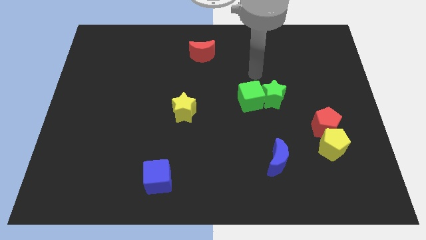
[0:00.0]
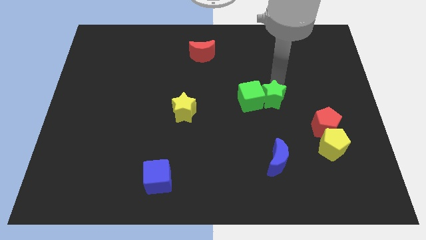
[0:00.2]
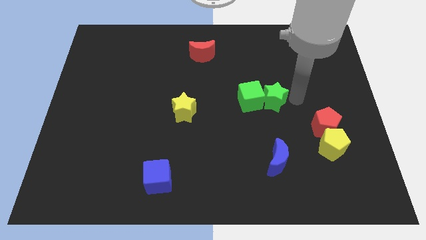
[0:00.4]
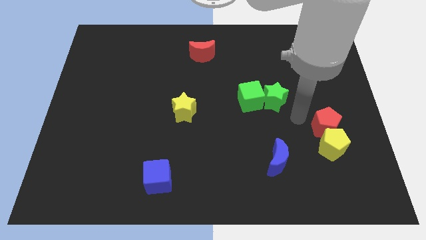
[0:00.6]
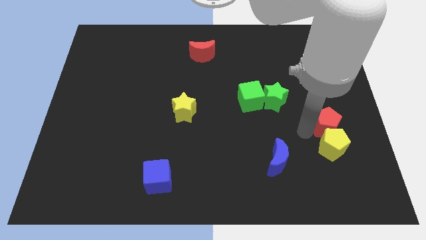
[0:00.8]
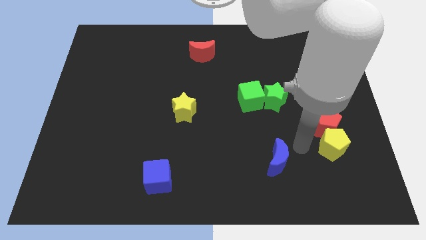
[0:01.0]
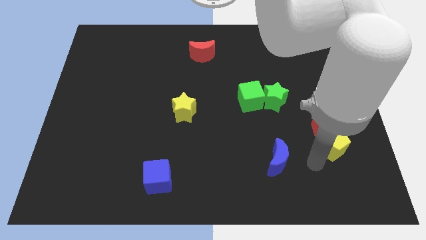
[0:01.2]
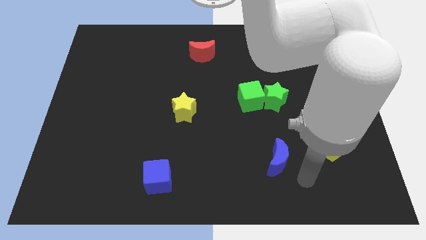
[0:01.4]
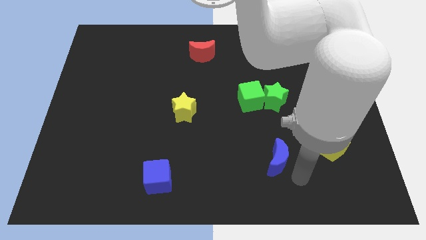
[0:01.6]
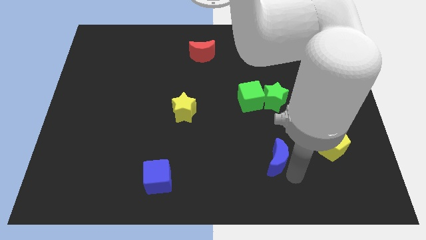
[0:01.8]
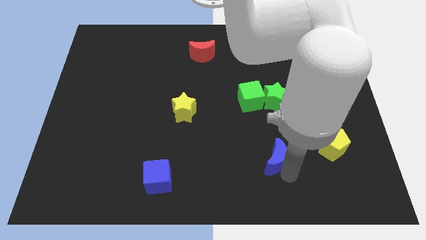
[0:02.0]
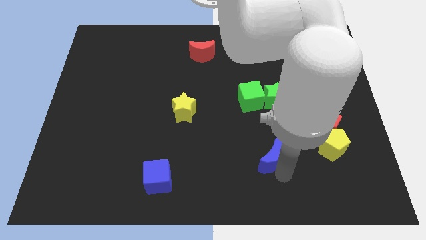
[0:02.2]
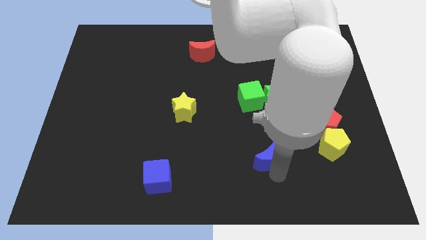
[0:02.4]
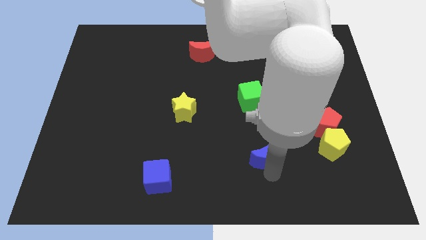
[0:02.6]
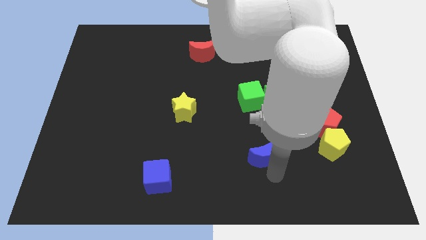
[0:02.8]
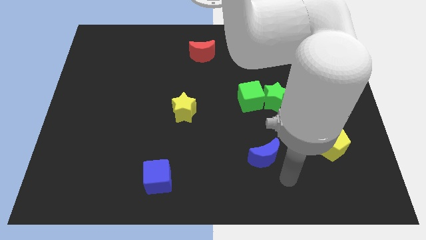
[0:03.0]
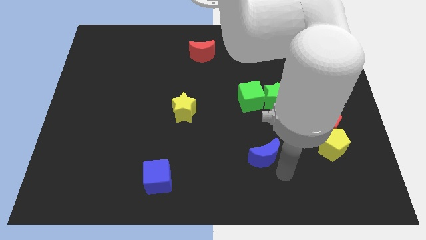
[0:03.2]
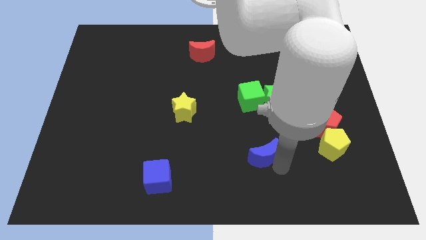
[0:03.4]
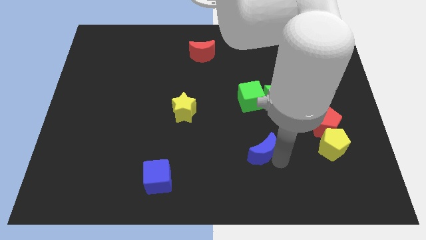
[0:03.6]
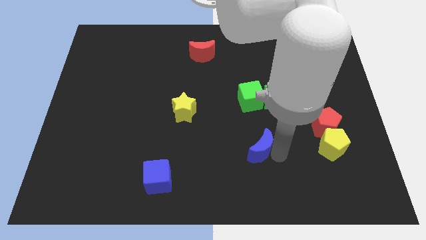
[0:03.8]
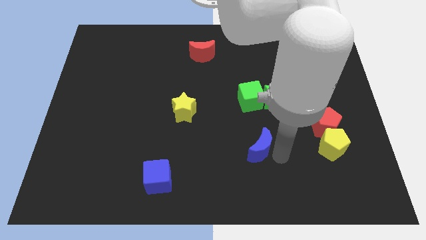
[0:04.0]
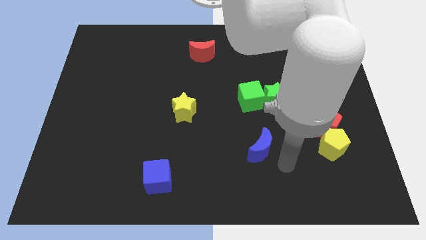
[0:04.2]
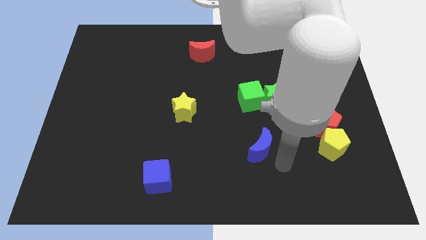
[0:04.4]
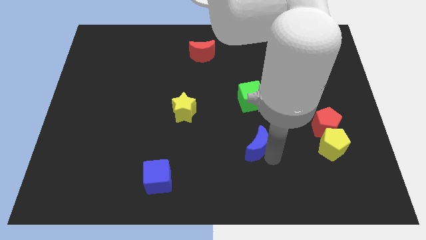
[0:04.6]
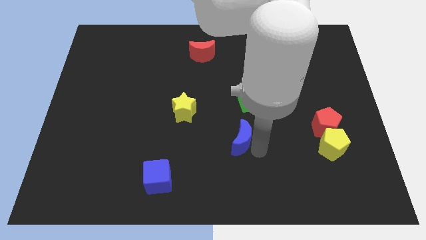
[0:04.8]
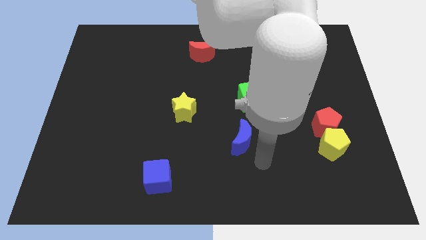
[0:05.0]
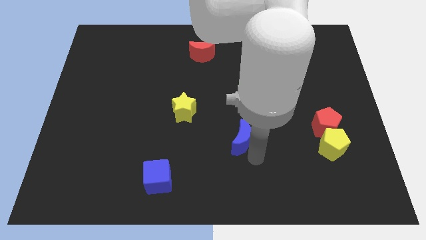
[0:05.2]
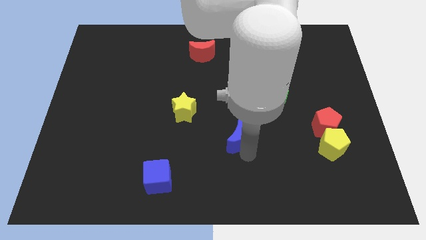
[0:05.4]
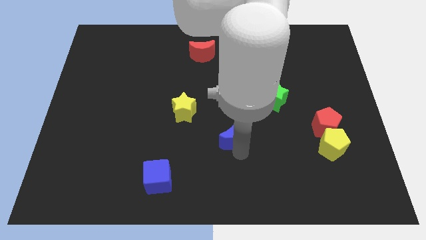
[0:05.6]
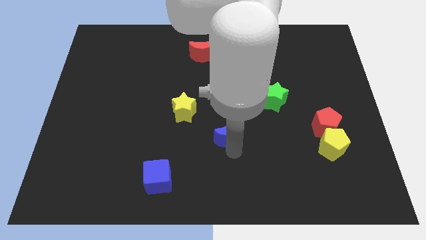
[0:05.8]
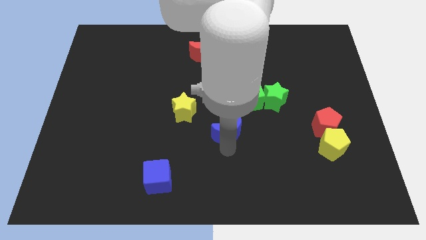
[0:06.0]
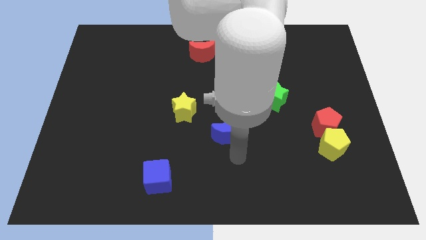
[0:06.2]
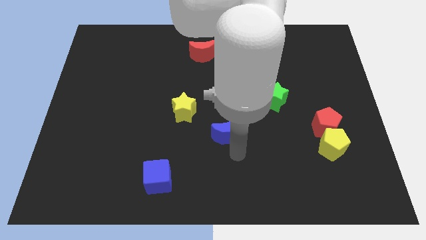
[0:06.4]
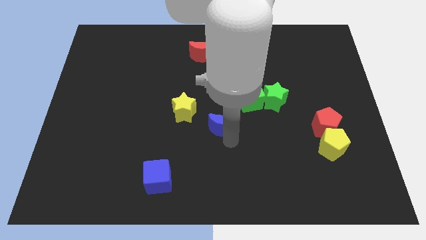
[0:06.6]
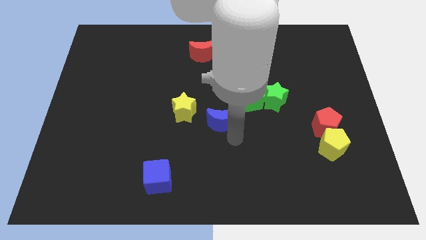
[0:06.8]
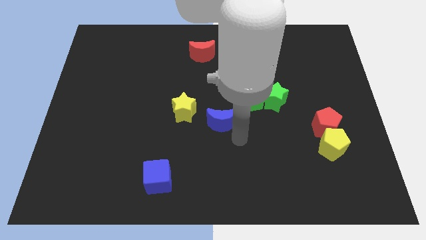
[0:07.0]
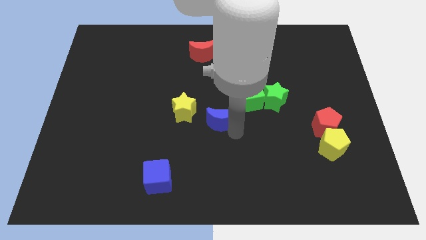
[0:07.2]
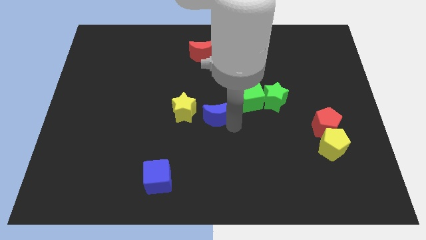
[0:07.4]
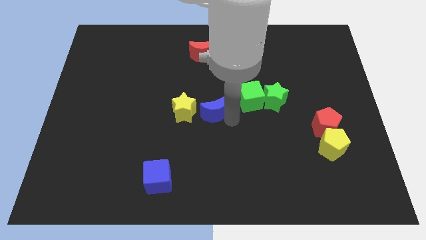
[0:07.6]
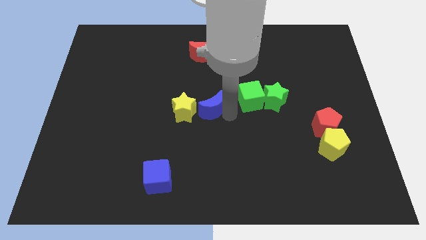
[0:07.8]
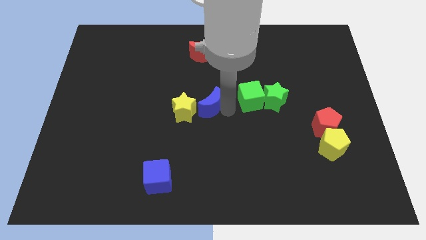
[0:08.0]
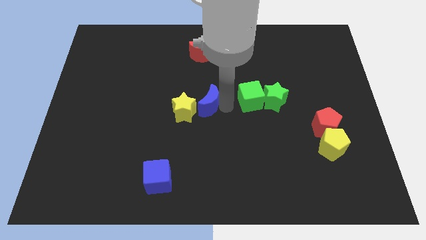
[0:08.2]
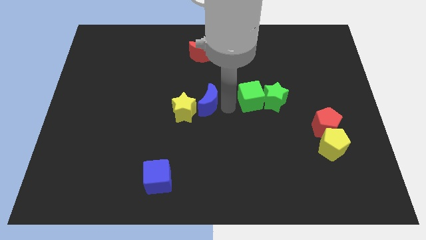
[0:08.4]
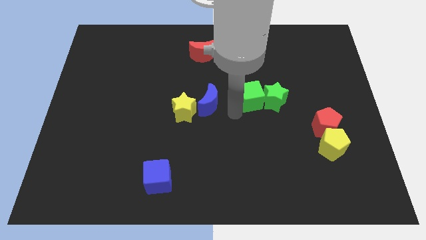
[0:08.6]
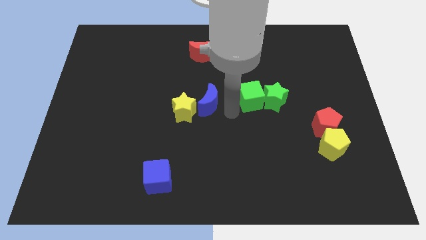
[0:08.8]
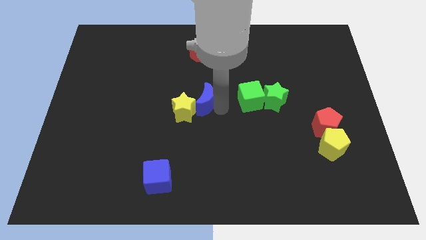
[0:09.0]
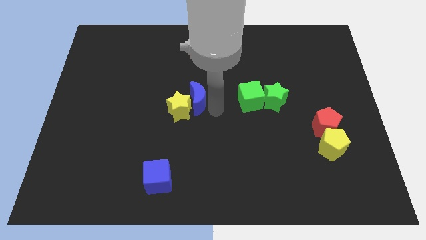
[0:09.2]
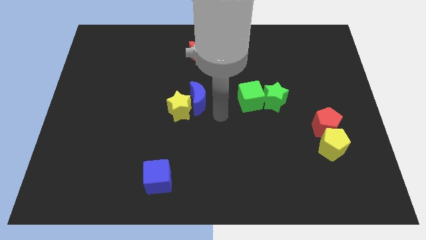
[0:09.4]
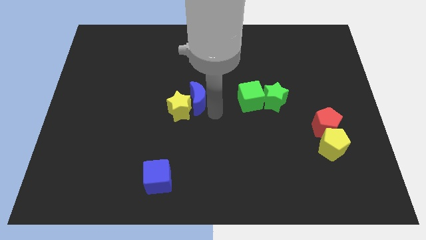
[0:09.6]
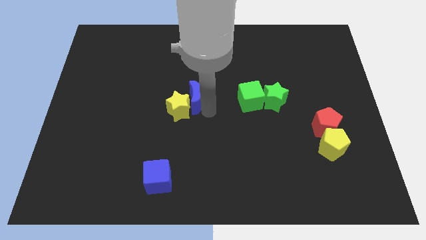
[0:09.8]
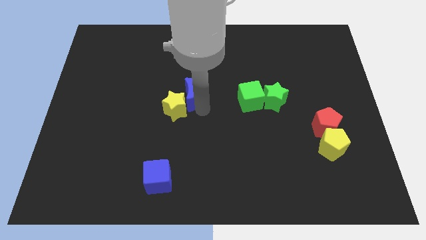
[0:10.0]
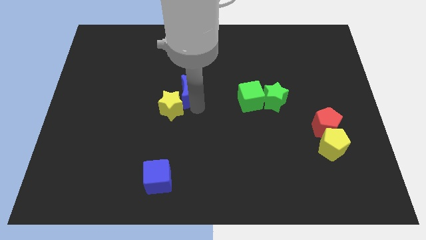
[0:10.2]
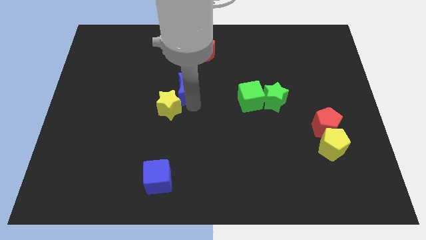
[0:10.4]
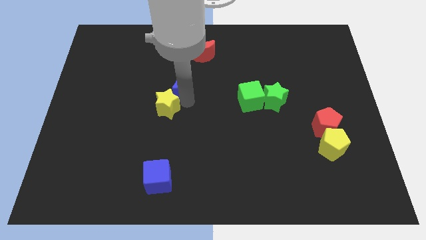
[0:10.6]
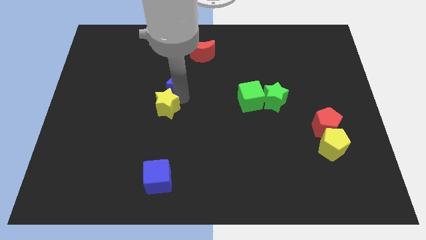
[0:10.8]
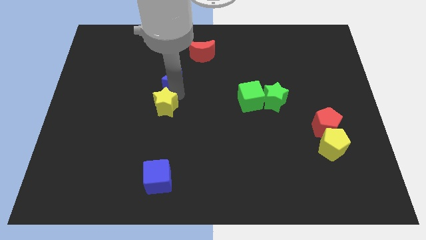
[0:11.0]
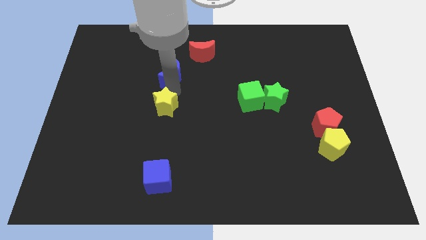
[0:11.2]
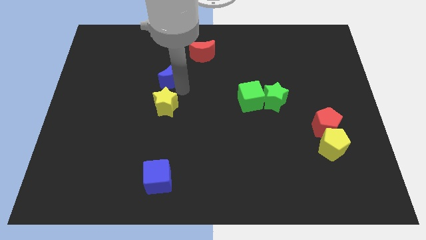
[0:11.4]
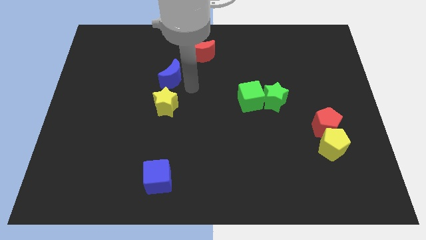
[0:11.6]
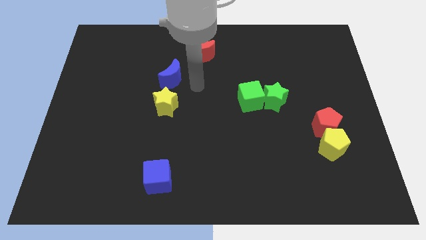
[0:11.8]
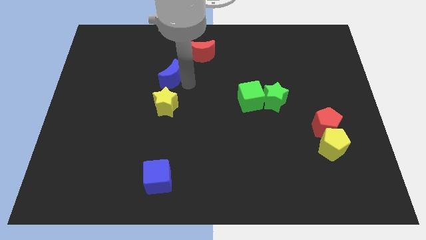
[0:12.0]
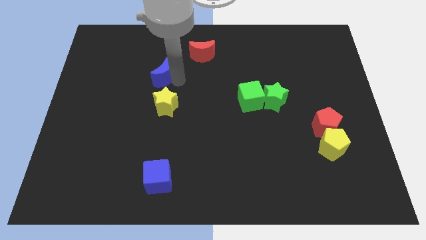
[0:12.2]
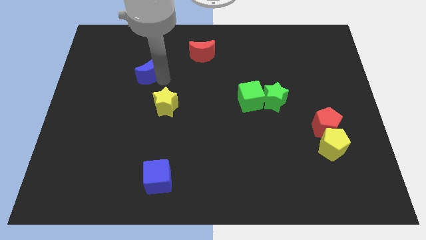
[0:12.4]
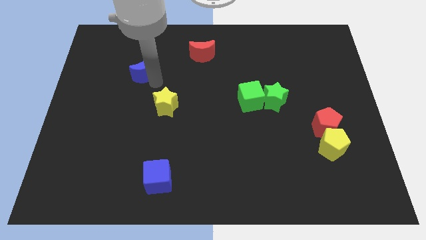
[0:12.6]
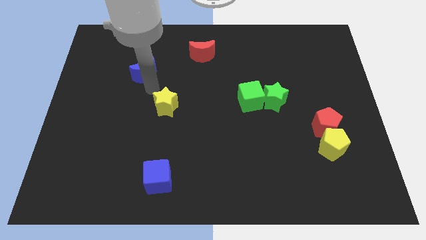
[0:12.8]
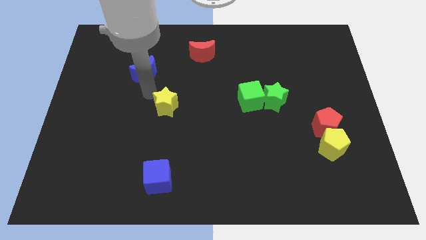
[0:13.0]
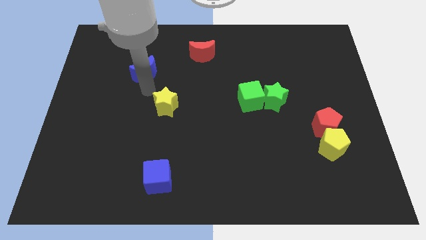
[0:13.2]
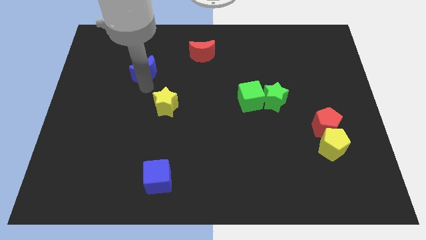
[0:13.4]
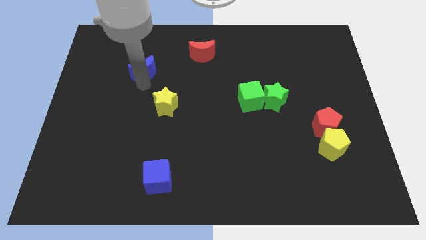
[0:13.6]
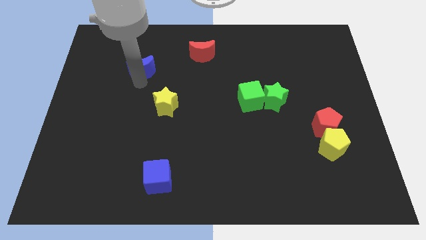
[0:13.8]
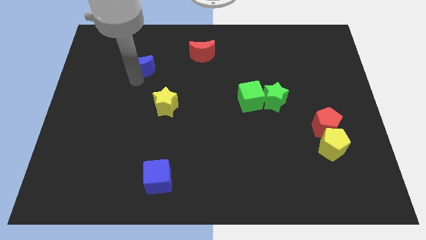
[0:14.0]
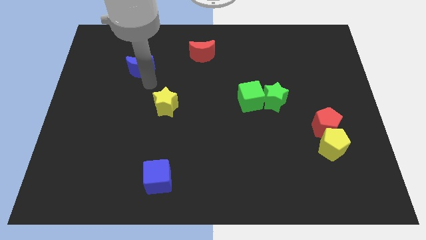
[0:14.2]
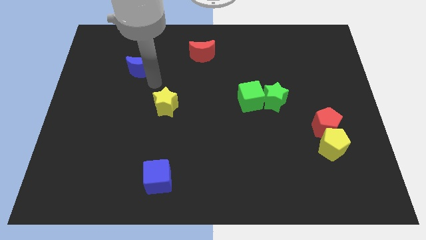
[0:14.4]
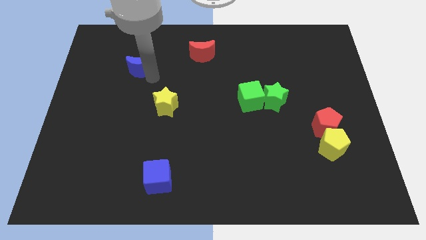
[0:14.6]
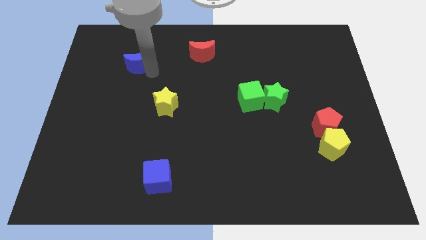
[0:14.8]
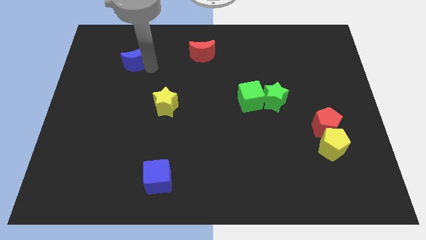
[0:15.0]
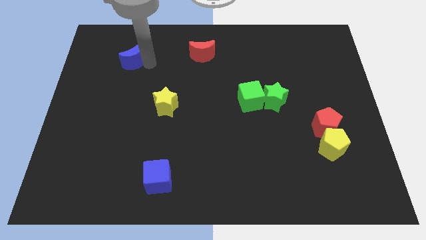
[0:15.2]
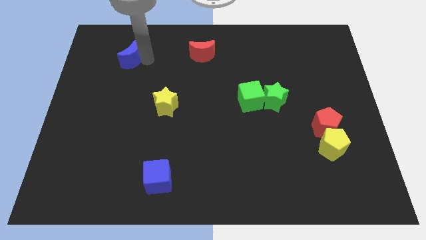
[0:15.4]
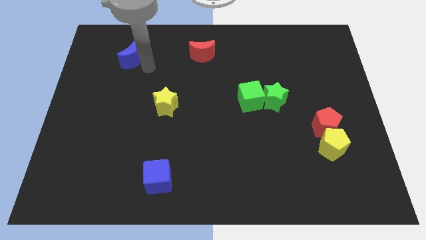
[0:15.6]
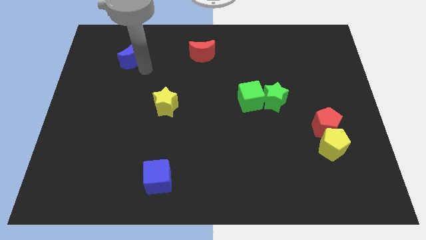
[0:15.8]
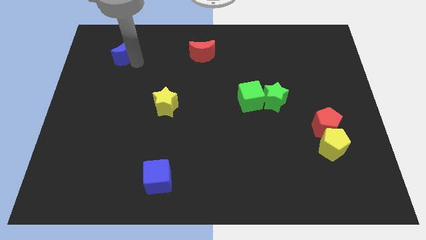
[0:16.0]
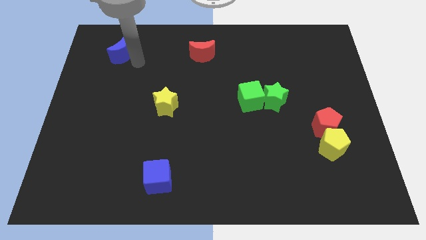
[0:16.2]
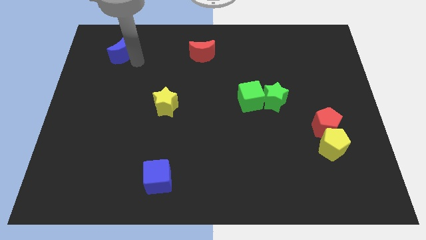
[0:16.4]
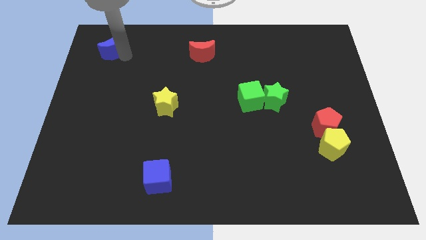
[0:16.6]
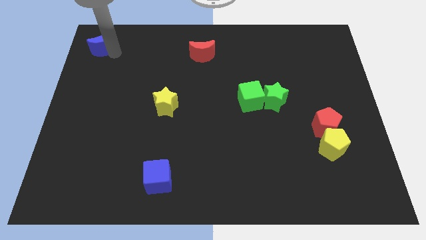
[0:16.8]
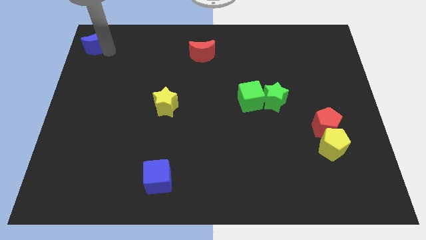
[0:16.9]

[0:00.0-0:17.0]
put the blue moon to the top left of the board
